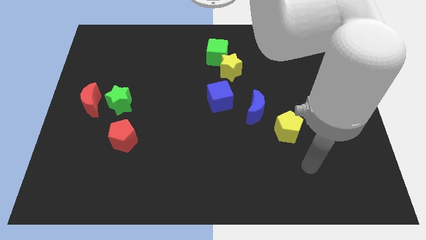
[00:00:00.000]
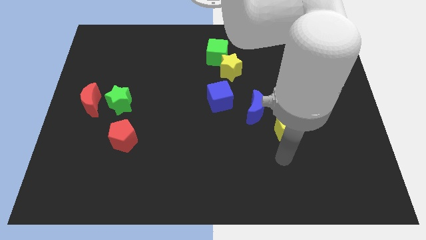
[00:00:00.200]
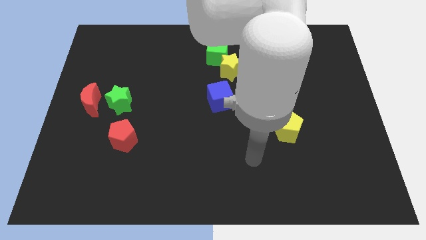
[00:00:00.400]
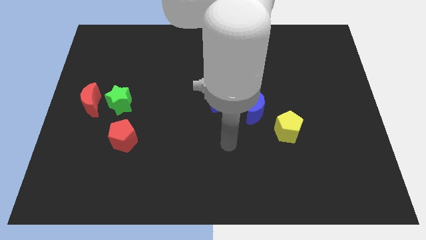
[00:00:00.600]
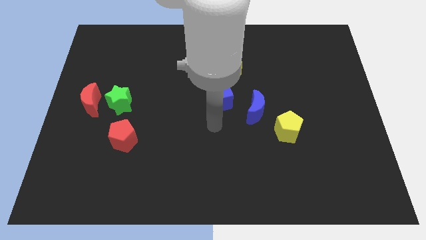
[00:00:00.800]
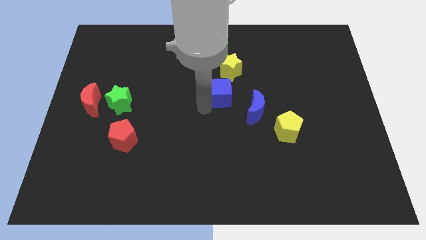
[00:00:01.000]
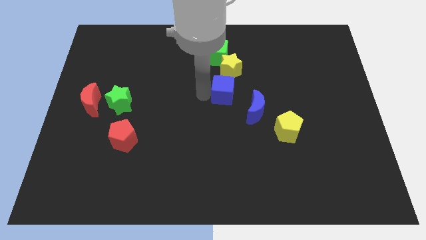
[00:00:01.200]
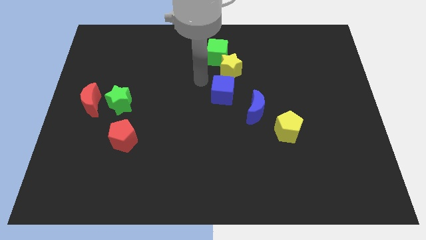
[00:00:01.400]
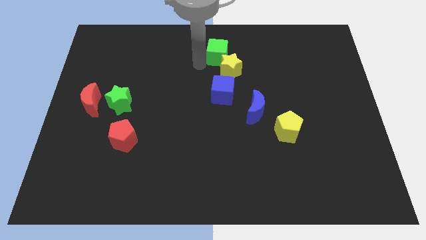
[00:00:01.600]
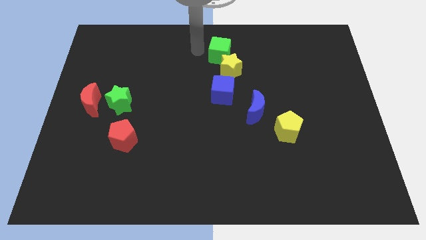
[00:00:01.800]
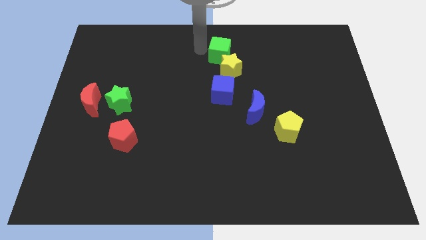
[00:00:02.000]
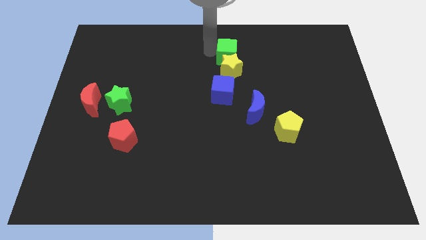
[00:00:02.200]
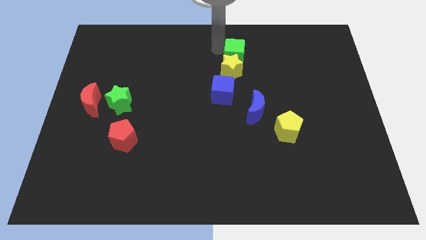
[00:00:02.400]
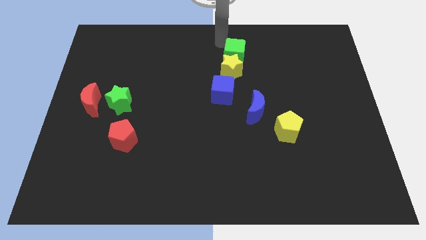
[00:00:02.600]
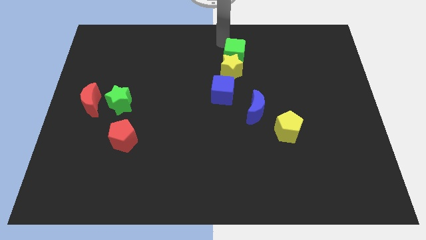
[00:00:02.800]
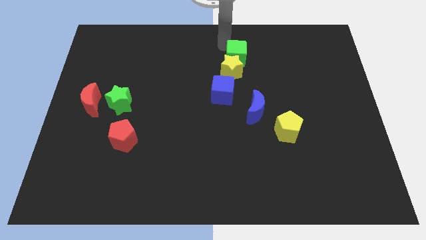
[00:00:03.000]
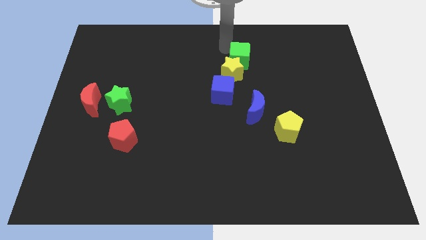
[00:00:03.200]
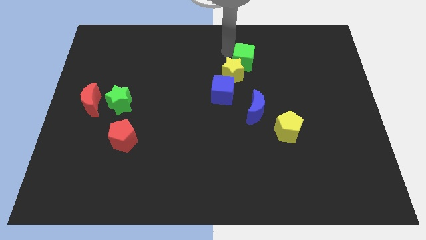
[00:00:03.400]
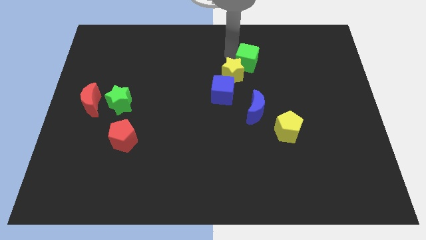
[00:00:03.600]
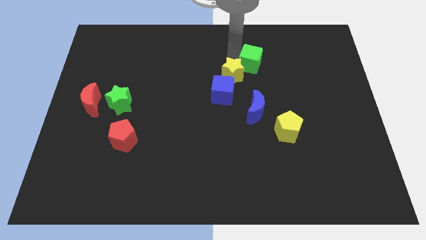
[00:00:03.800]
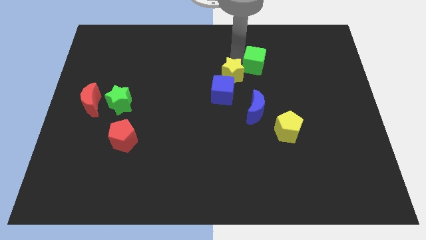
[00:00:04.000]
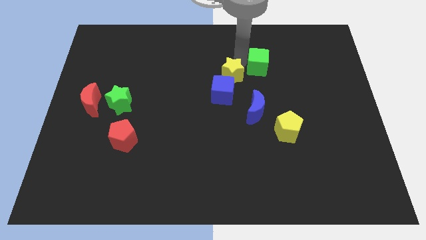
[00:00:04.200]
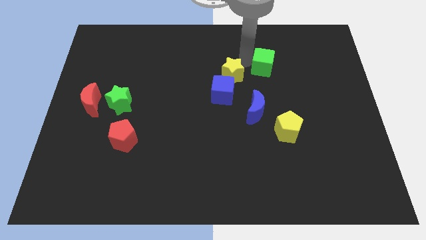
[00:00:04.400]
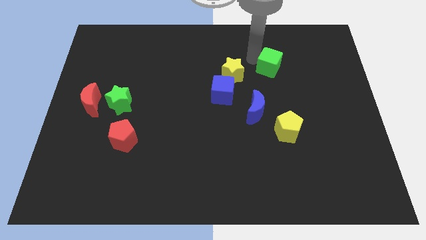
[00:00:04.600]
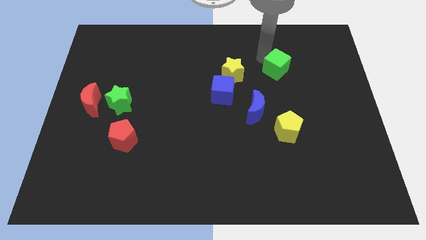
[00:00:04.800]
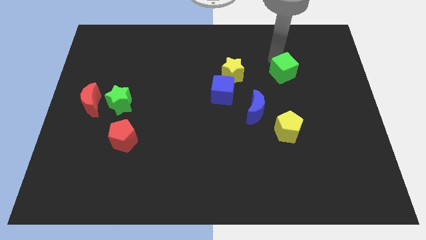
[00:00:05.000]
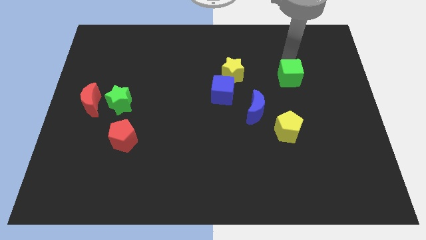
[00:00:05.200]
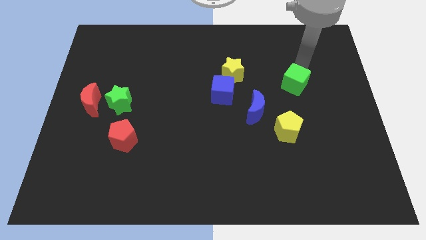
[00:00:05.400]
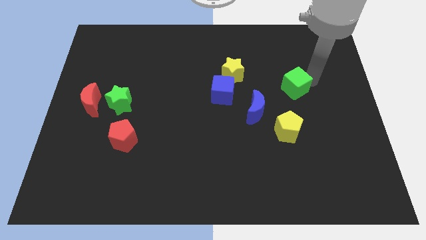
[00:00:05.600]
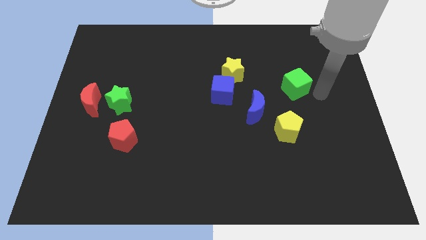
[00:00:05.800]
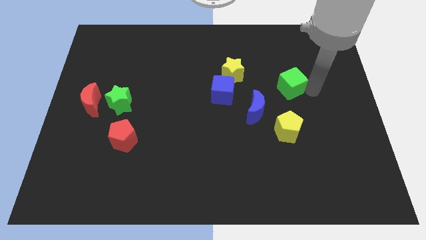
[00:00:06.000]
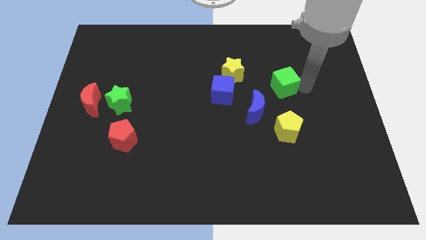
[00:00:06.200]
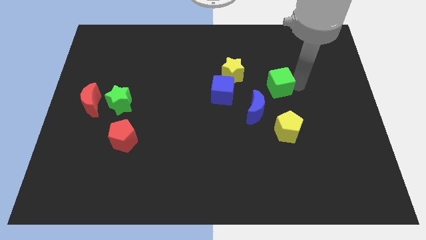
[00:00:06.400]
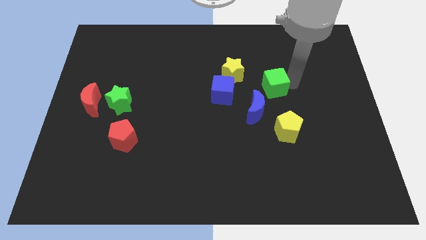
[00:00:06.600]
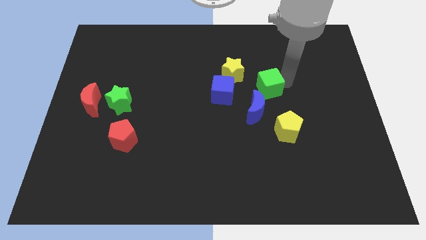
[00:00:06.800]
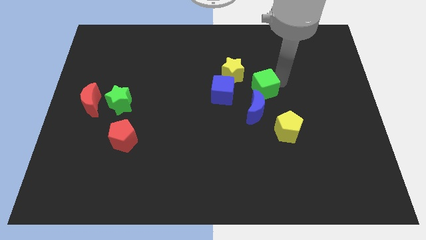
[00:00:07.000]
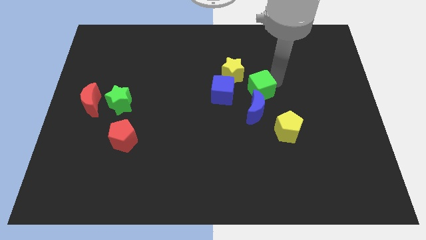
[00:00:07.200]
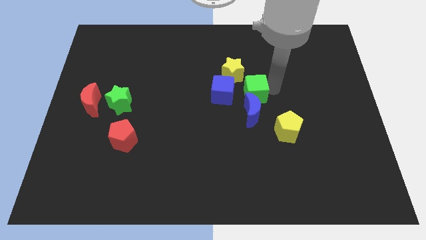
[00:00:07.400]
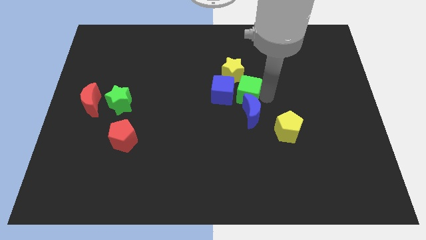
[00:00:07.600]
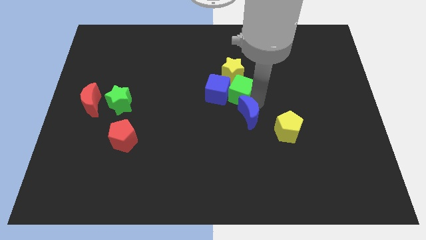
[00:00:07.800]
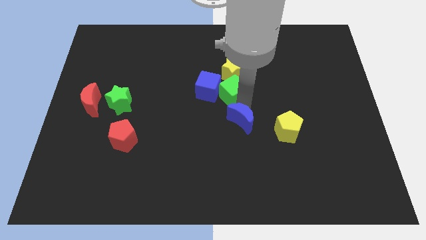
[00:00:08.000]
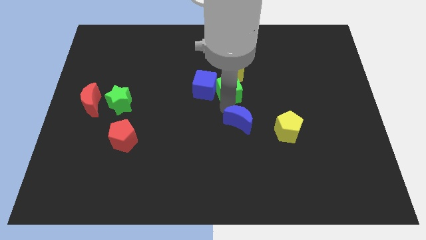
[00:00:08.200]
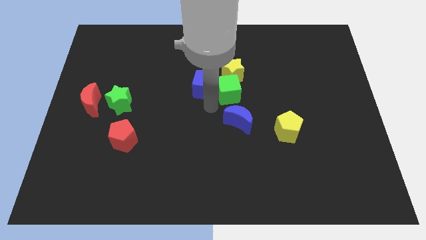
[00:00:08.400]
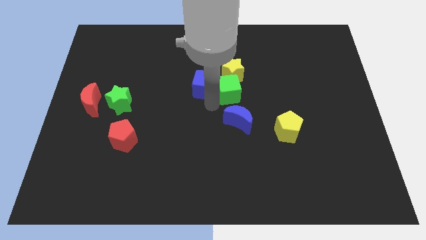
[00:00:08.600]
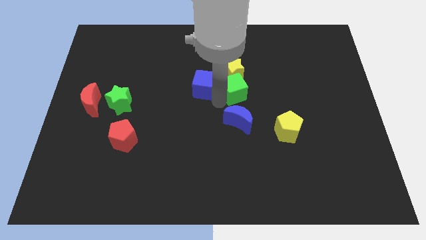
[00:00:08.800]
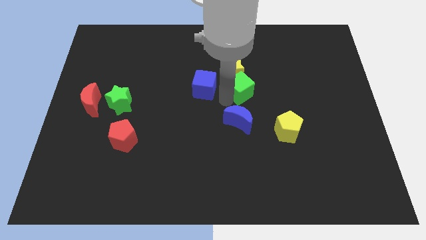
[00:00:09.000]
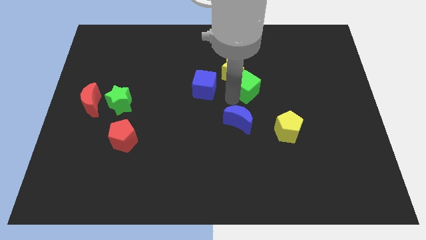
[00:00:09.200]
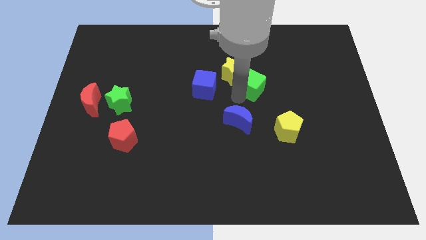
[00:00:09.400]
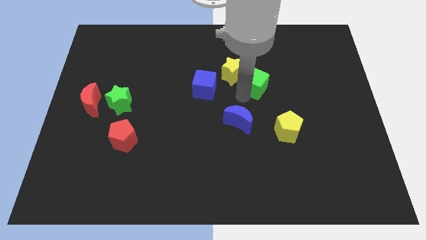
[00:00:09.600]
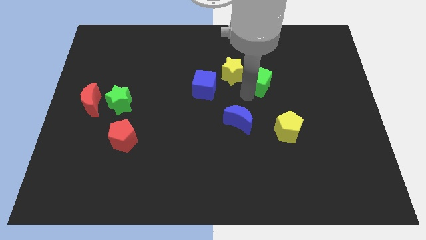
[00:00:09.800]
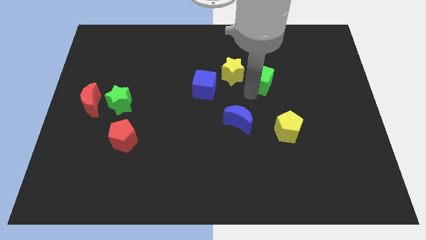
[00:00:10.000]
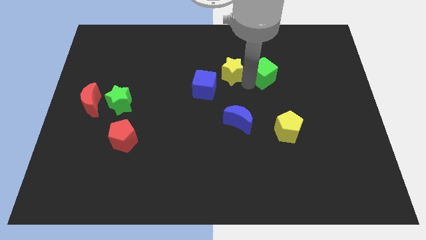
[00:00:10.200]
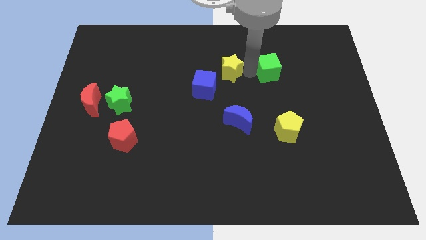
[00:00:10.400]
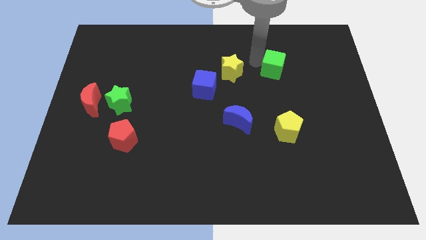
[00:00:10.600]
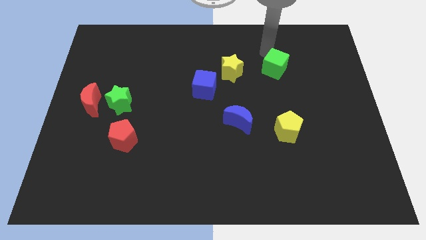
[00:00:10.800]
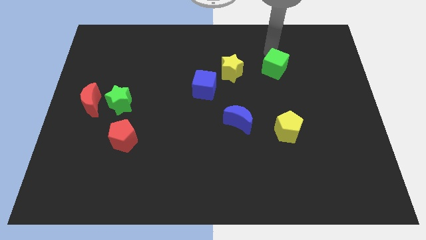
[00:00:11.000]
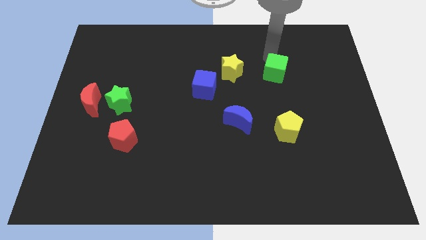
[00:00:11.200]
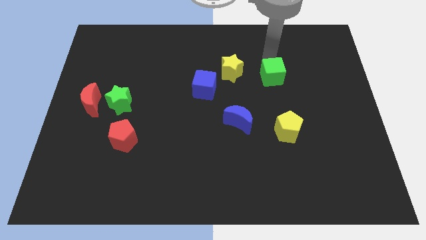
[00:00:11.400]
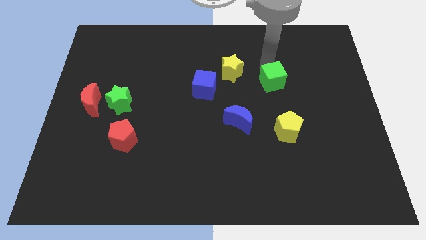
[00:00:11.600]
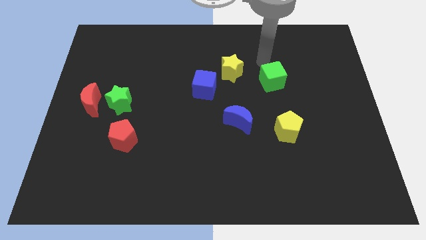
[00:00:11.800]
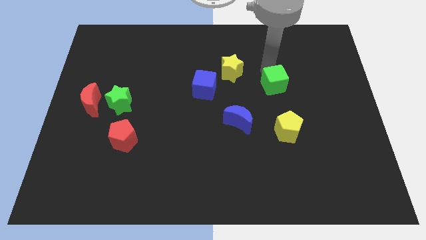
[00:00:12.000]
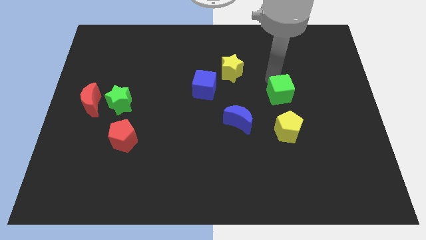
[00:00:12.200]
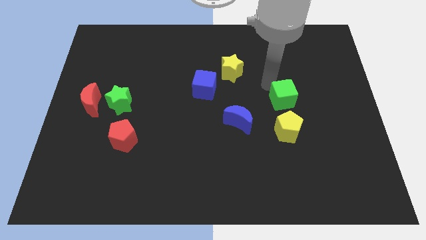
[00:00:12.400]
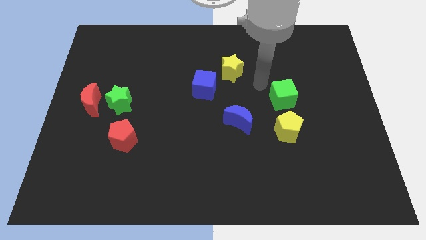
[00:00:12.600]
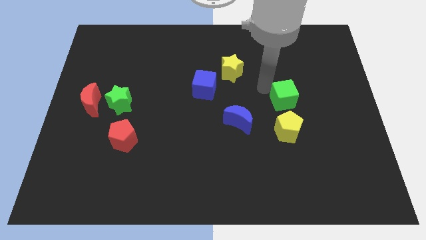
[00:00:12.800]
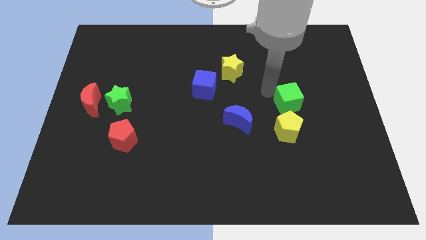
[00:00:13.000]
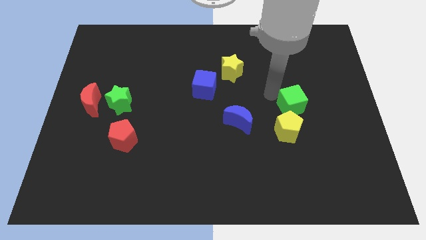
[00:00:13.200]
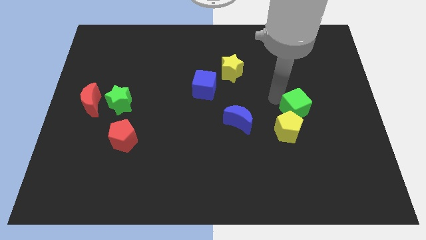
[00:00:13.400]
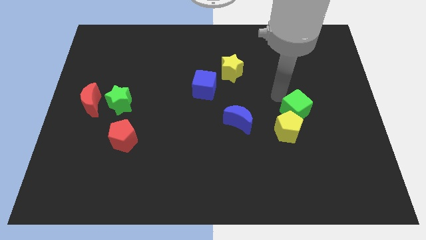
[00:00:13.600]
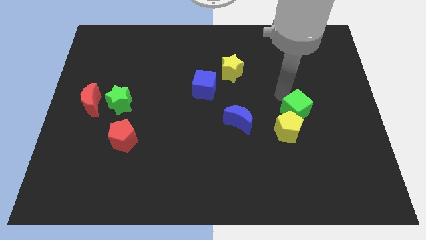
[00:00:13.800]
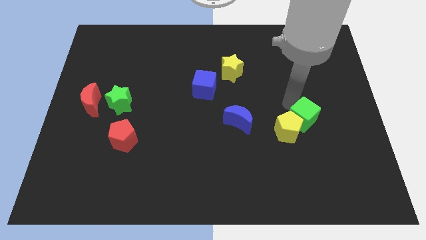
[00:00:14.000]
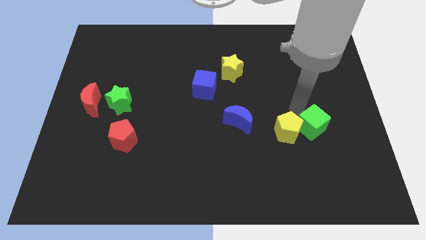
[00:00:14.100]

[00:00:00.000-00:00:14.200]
put the green cube to the bottom right of the yellow pentagon

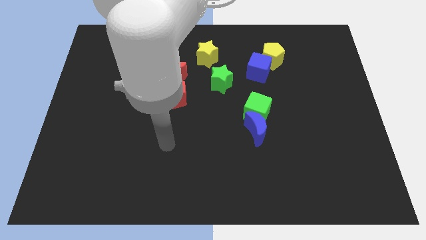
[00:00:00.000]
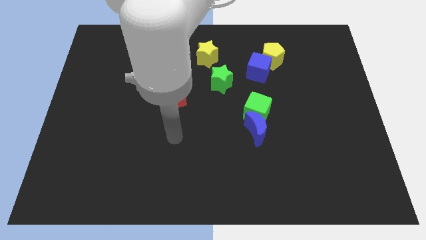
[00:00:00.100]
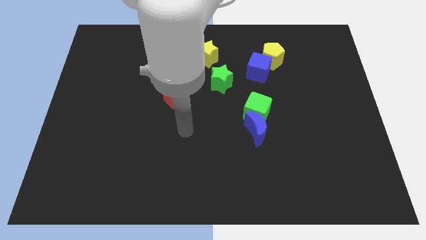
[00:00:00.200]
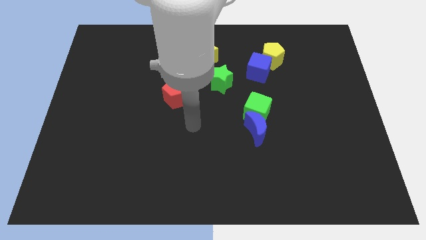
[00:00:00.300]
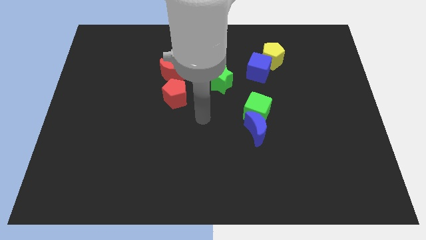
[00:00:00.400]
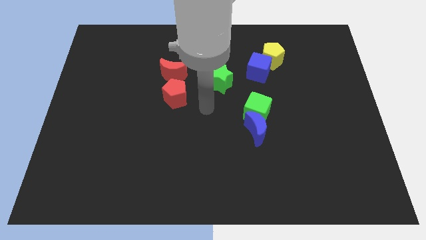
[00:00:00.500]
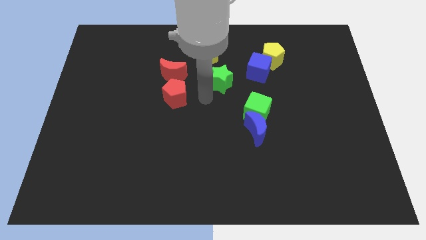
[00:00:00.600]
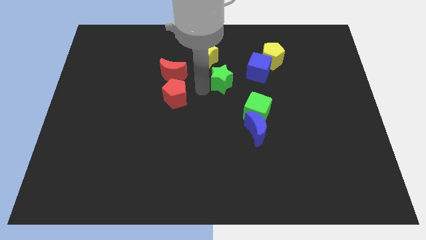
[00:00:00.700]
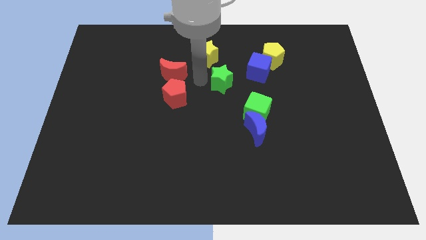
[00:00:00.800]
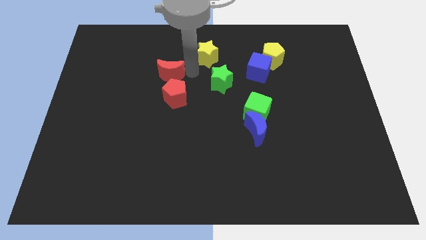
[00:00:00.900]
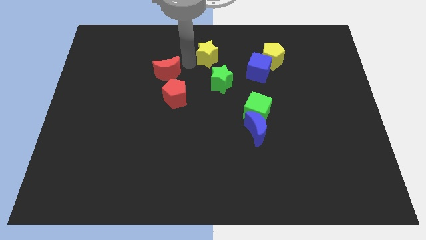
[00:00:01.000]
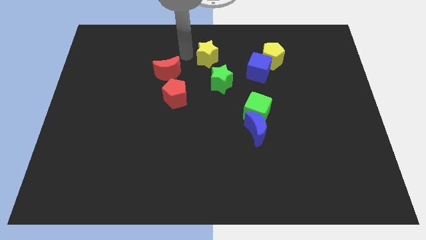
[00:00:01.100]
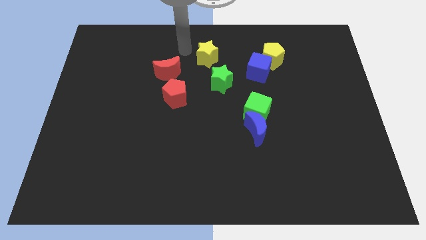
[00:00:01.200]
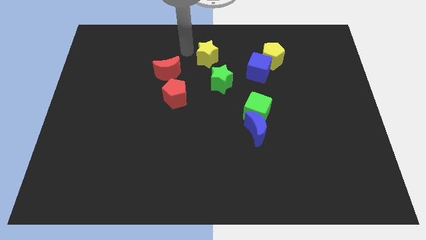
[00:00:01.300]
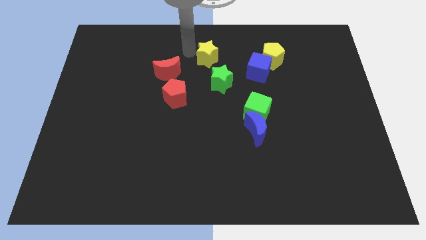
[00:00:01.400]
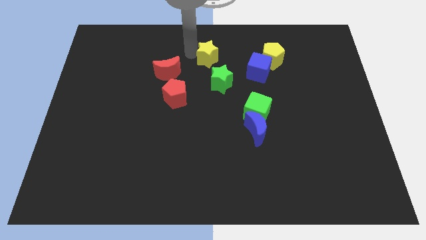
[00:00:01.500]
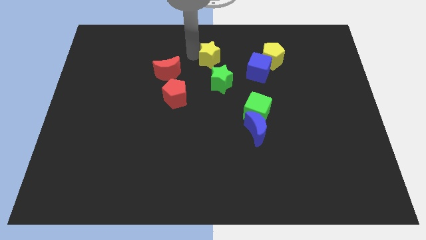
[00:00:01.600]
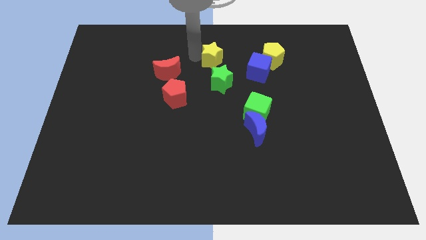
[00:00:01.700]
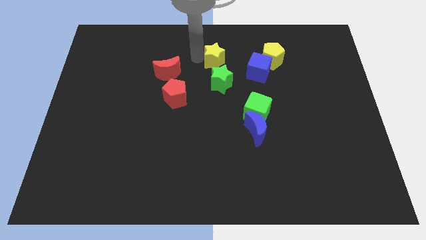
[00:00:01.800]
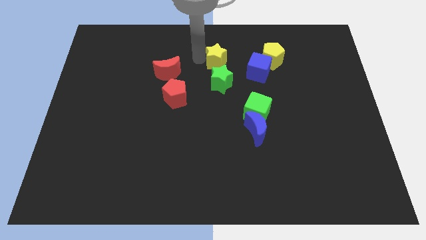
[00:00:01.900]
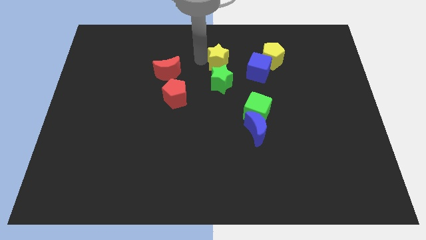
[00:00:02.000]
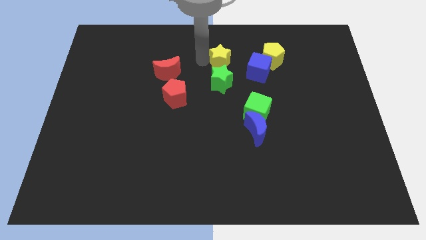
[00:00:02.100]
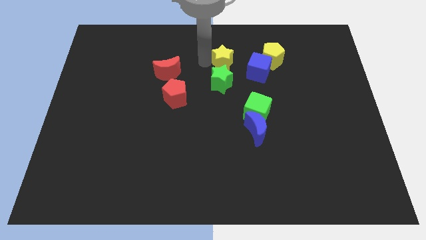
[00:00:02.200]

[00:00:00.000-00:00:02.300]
put the yellow star to the top right of the green star
